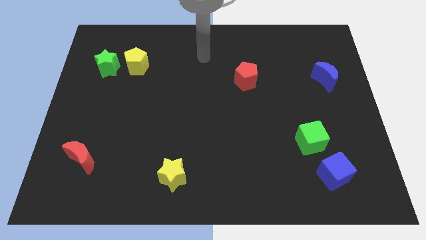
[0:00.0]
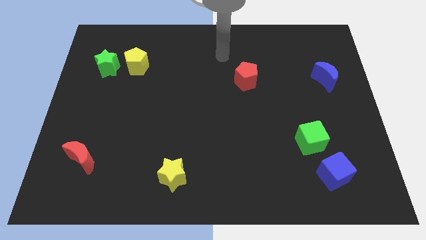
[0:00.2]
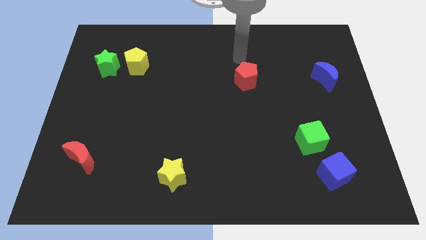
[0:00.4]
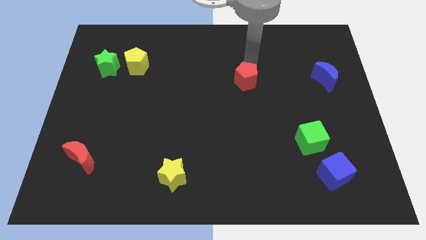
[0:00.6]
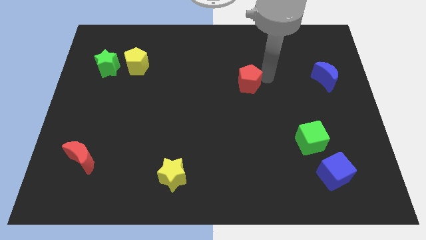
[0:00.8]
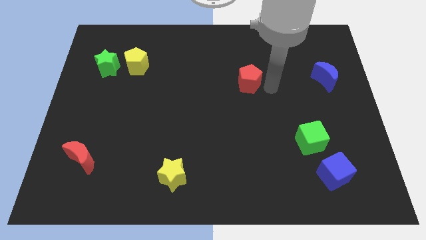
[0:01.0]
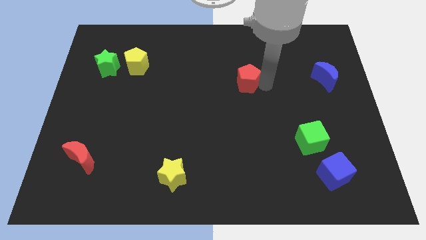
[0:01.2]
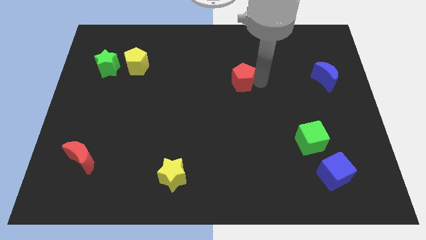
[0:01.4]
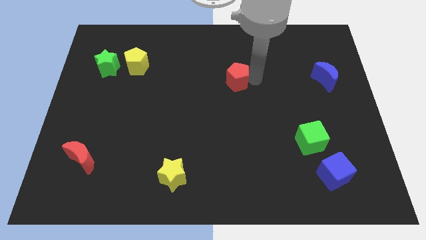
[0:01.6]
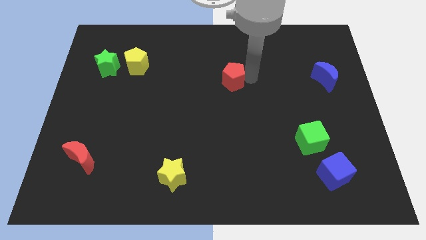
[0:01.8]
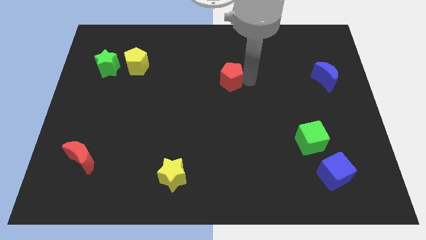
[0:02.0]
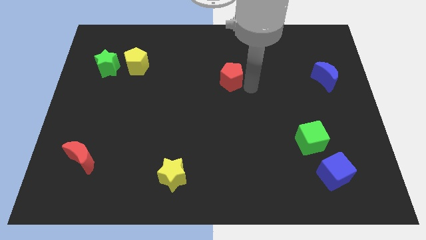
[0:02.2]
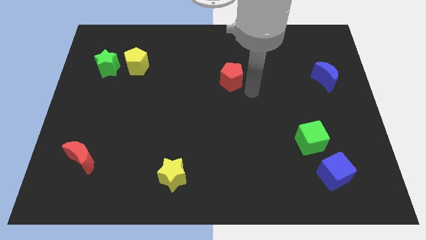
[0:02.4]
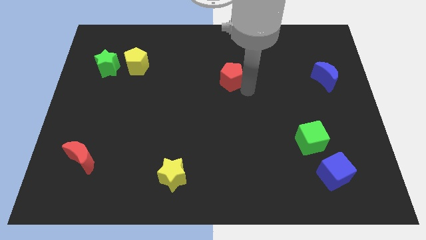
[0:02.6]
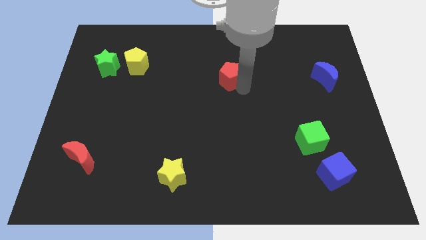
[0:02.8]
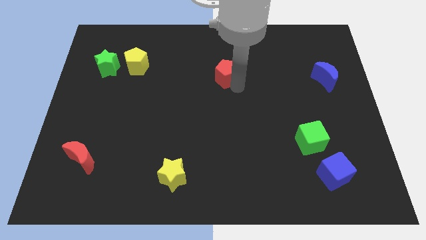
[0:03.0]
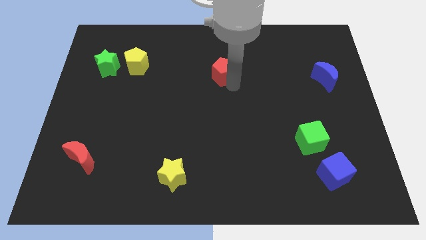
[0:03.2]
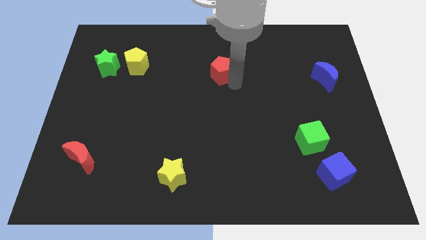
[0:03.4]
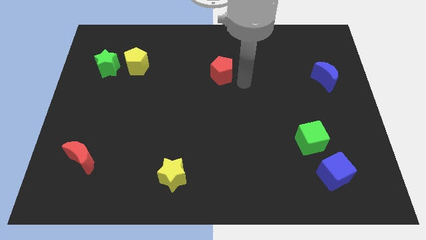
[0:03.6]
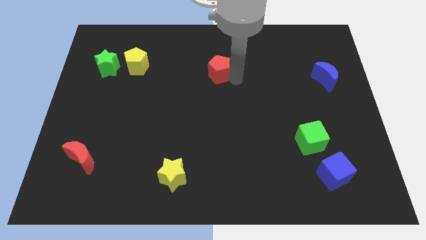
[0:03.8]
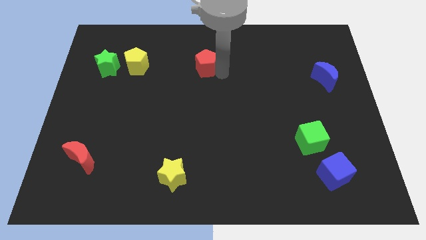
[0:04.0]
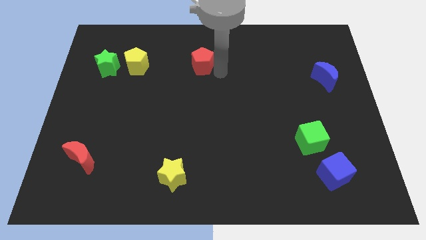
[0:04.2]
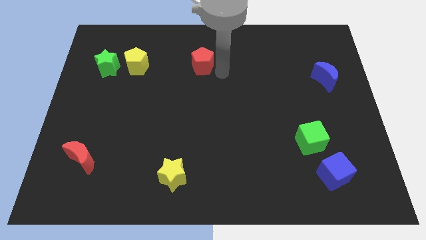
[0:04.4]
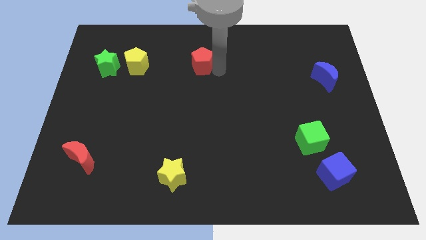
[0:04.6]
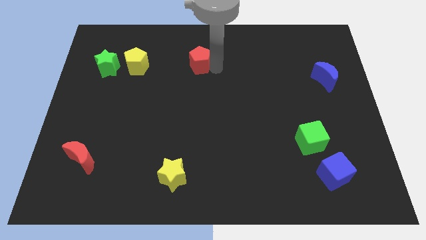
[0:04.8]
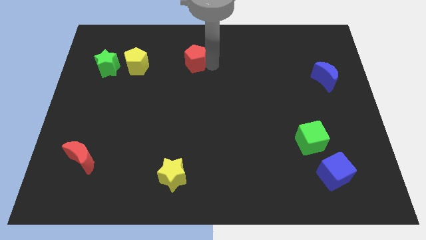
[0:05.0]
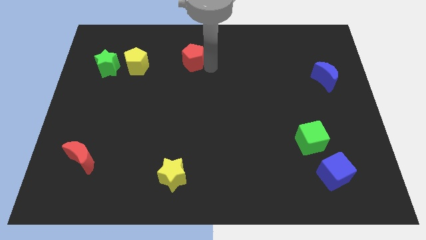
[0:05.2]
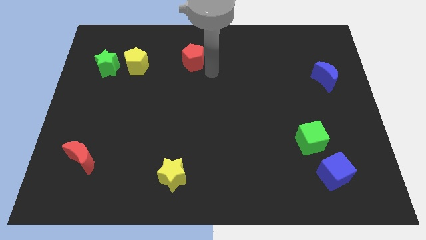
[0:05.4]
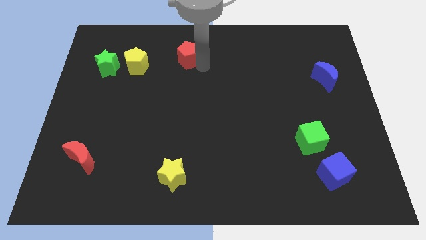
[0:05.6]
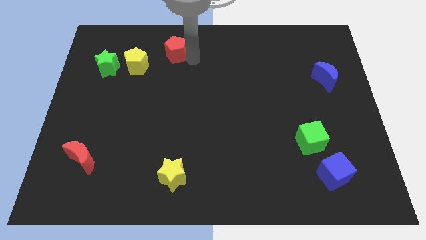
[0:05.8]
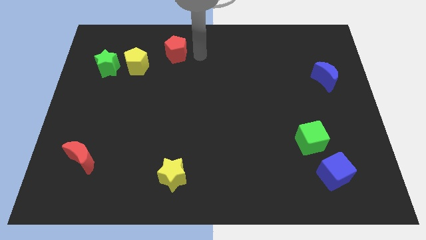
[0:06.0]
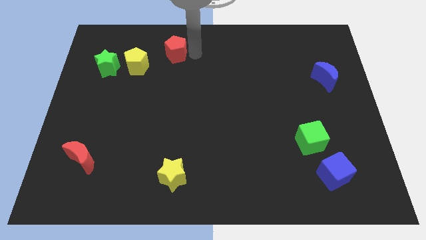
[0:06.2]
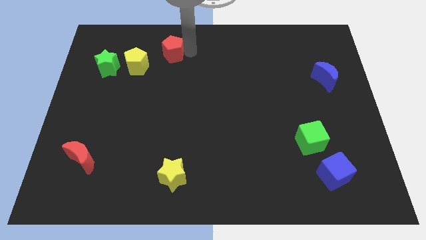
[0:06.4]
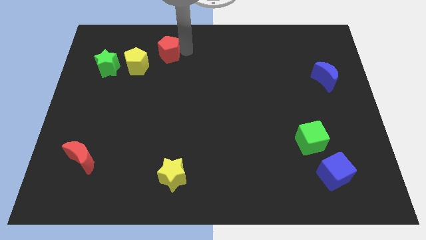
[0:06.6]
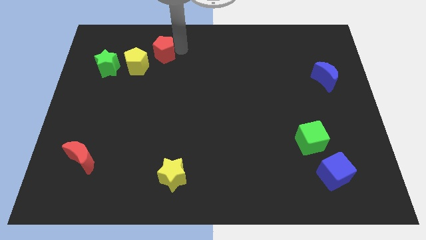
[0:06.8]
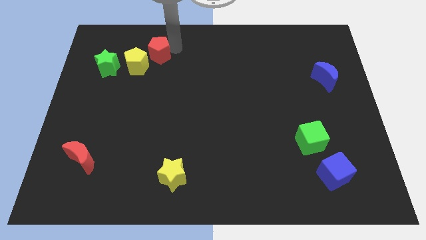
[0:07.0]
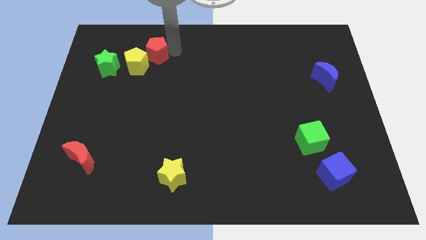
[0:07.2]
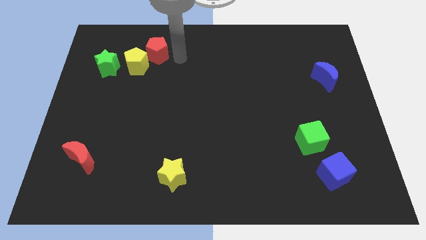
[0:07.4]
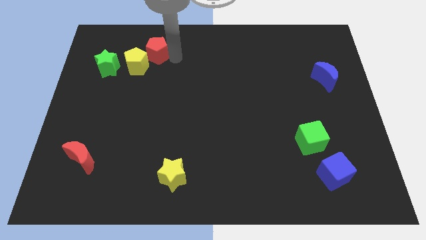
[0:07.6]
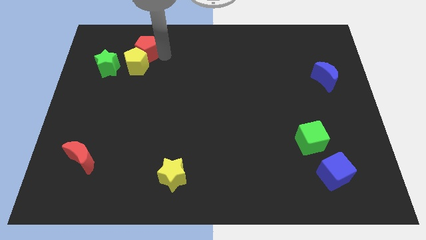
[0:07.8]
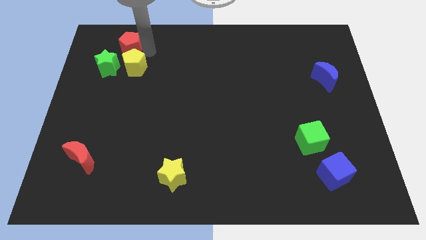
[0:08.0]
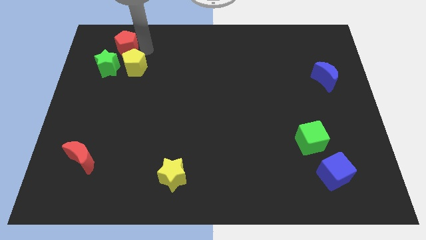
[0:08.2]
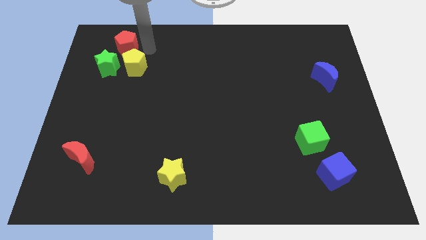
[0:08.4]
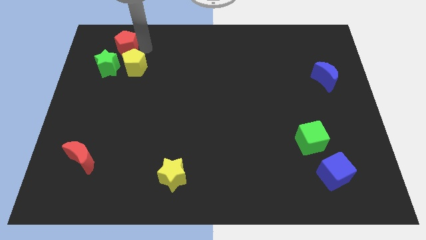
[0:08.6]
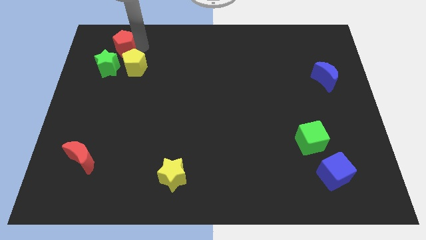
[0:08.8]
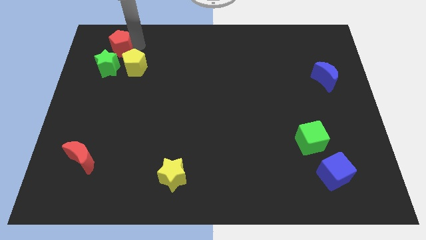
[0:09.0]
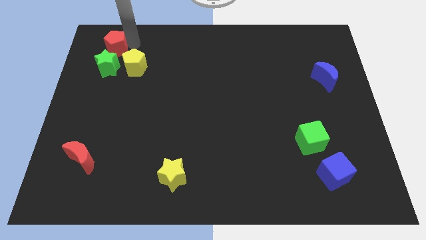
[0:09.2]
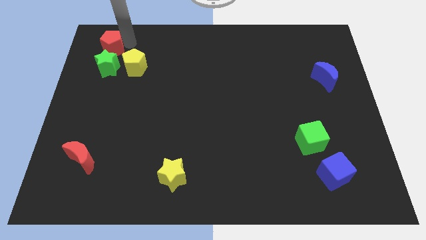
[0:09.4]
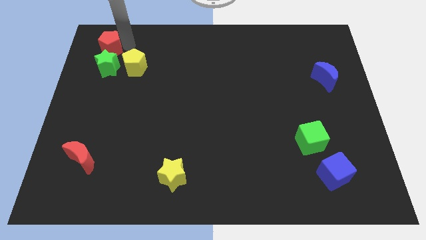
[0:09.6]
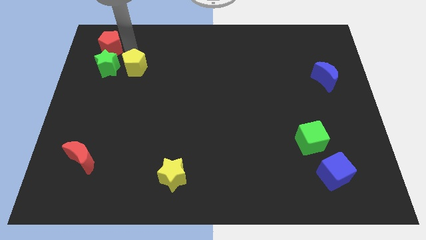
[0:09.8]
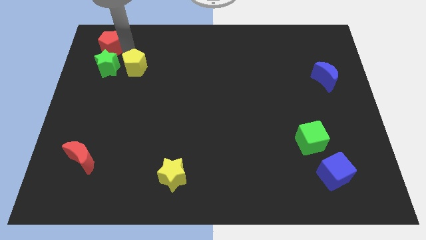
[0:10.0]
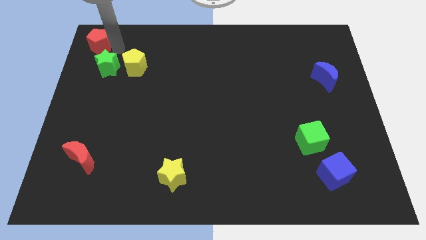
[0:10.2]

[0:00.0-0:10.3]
slide the red pentagon to the top left of the board
